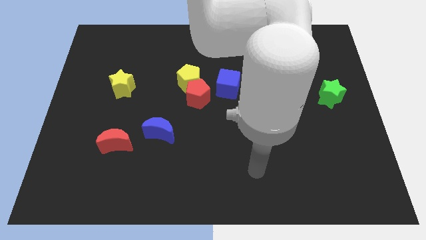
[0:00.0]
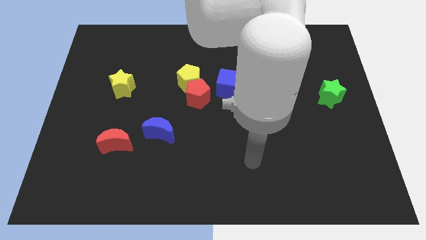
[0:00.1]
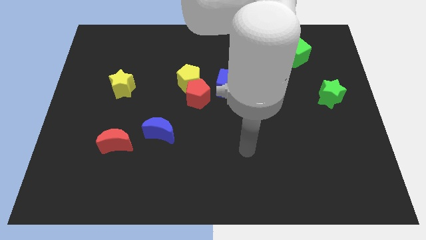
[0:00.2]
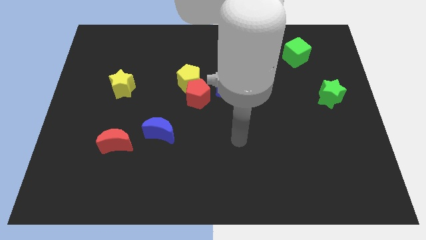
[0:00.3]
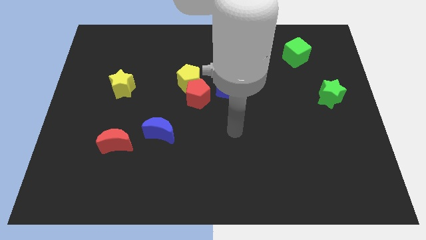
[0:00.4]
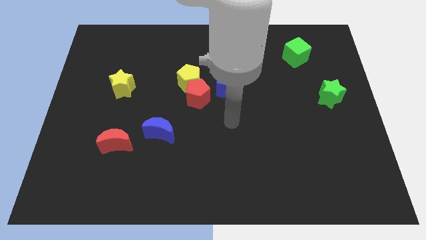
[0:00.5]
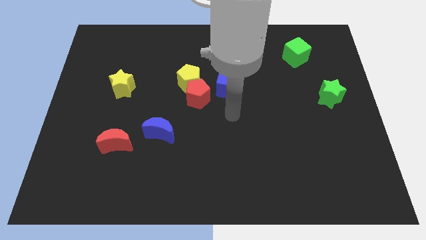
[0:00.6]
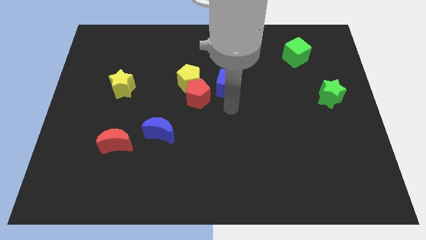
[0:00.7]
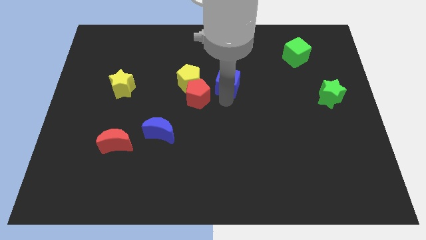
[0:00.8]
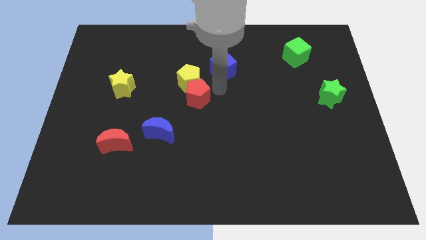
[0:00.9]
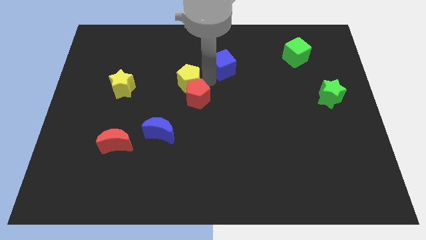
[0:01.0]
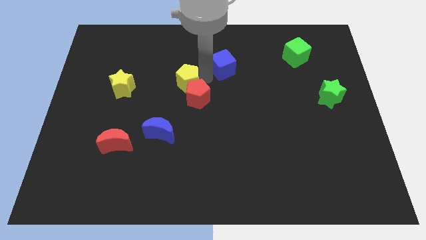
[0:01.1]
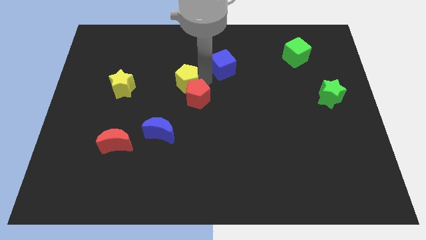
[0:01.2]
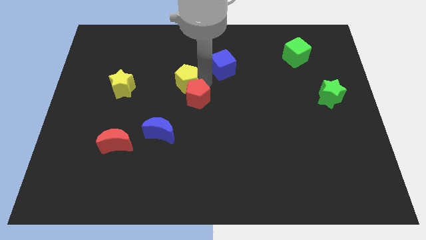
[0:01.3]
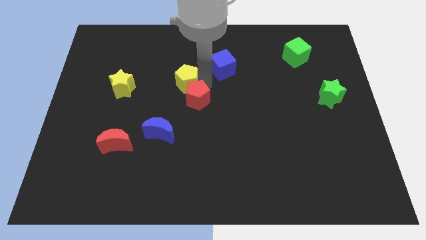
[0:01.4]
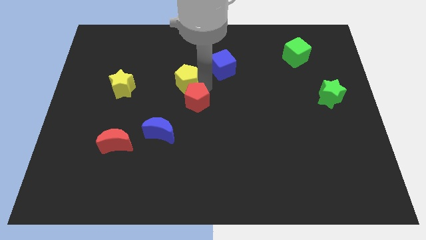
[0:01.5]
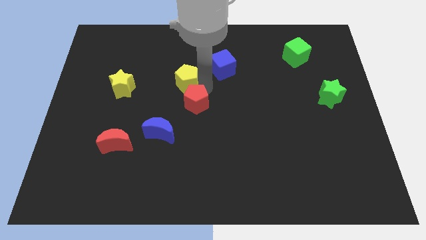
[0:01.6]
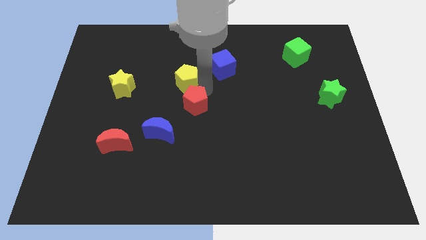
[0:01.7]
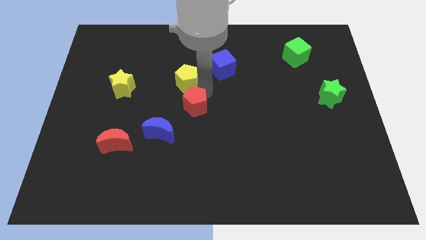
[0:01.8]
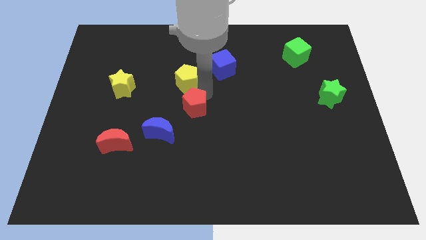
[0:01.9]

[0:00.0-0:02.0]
separate the red pentagon from the yellow pentagon and blue cube

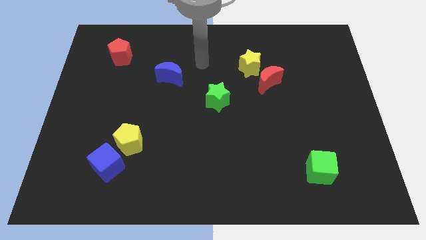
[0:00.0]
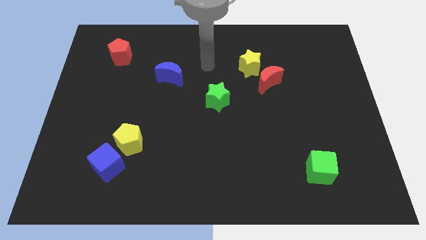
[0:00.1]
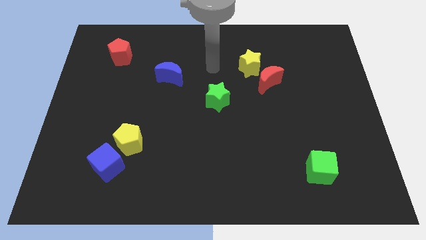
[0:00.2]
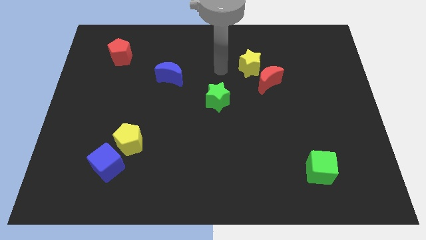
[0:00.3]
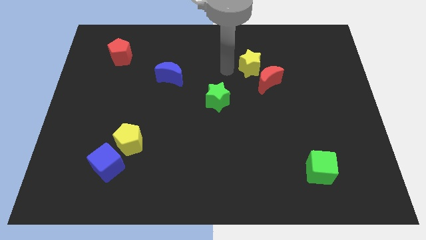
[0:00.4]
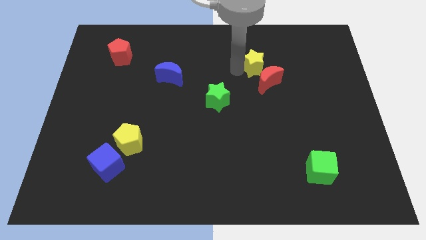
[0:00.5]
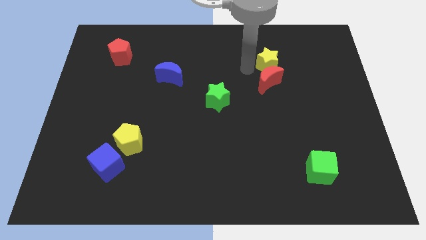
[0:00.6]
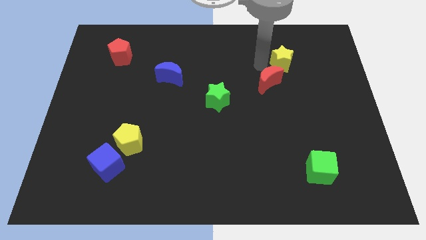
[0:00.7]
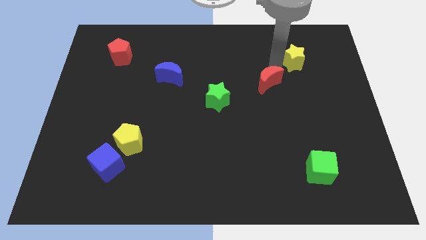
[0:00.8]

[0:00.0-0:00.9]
move the red moon away from the yellow star

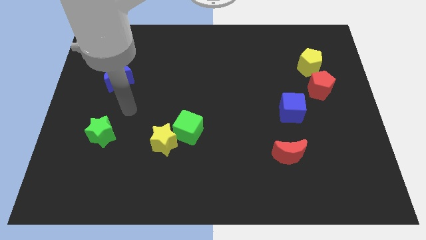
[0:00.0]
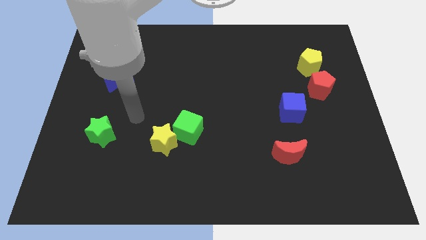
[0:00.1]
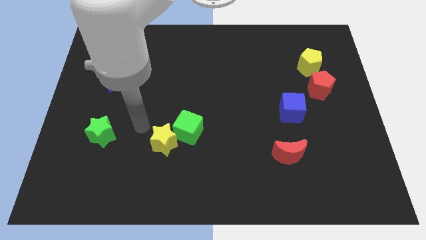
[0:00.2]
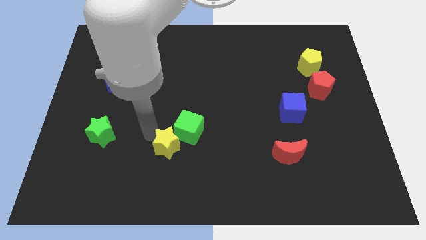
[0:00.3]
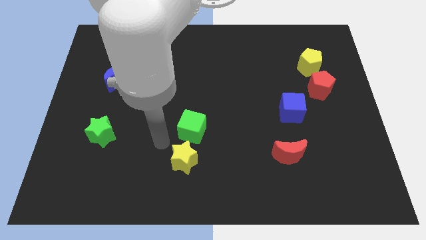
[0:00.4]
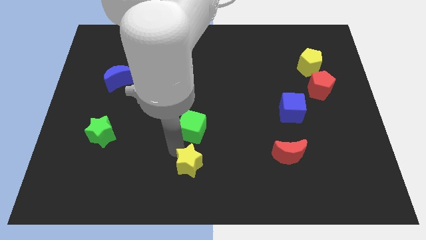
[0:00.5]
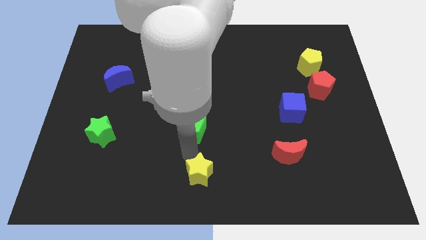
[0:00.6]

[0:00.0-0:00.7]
pull the green cube apart from the yellow star

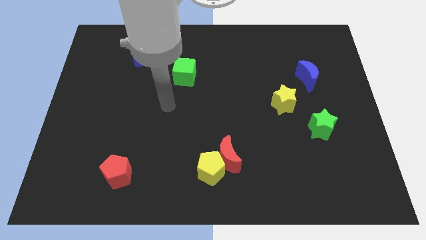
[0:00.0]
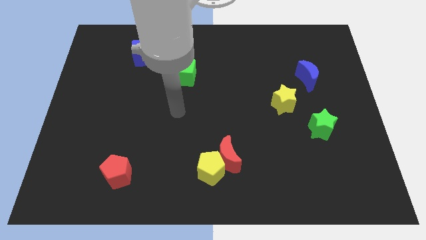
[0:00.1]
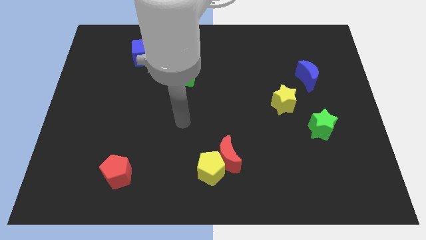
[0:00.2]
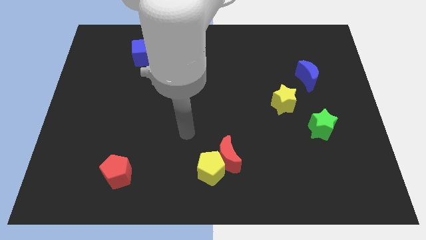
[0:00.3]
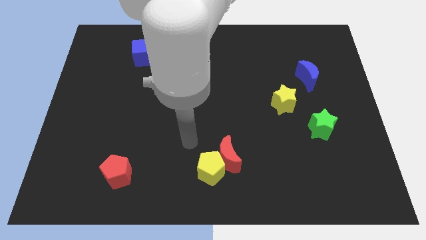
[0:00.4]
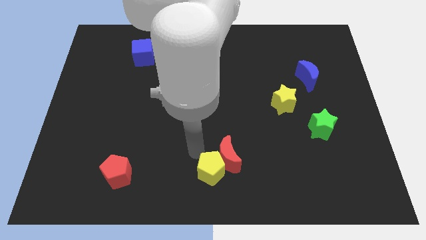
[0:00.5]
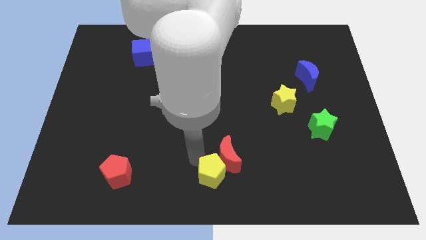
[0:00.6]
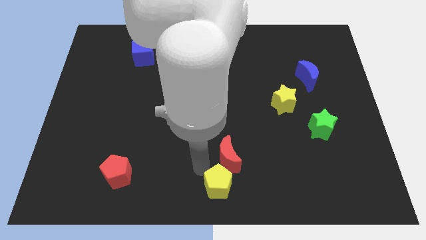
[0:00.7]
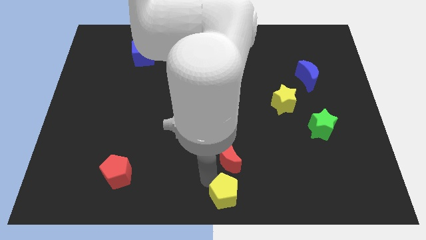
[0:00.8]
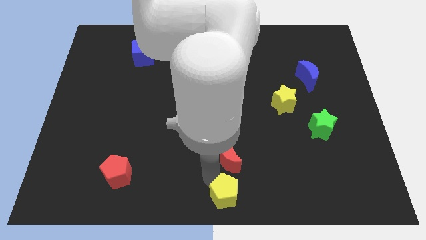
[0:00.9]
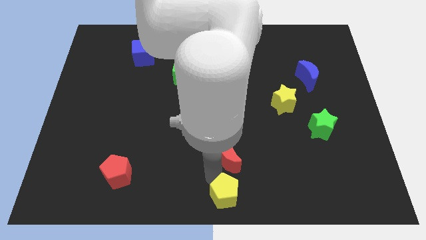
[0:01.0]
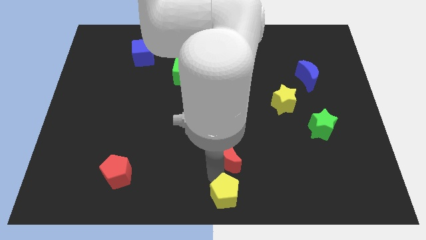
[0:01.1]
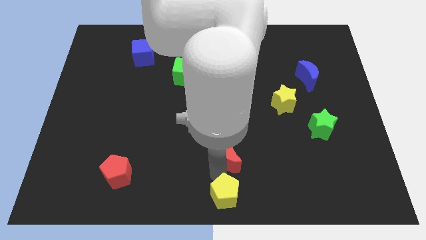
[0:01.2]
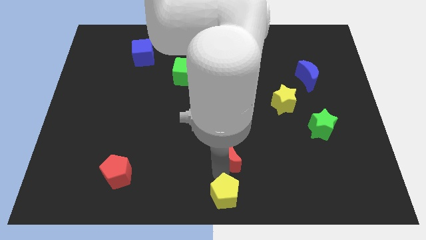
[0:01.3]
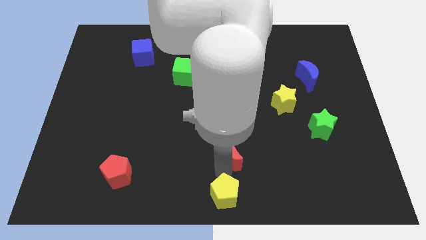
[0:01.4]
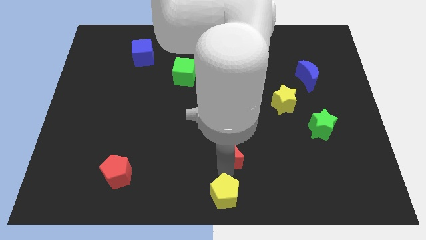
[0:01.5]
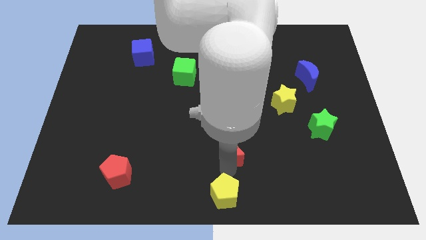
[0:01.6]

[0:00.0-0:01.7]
pull the red moon apart from the yellow pentagon

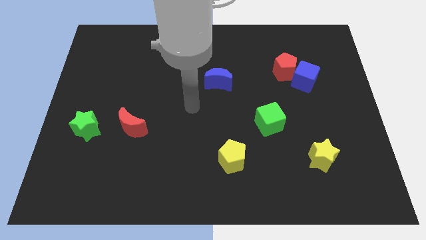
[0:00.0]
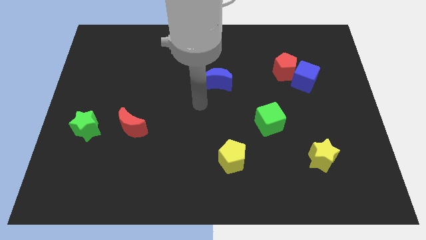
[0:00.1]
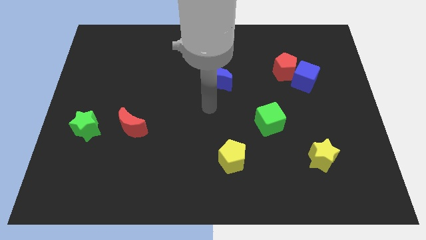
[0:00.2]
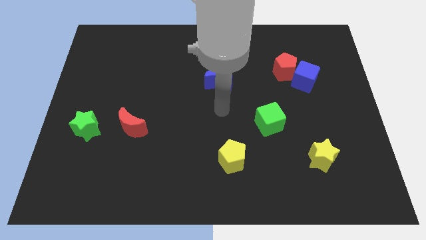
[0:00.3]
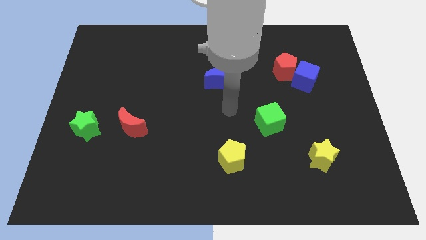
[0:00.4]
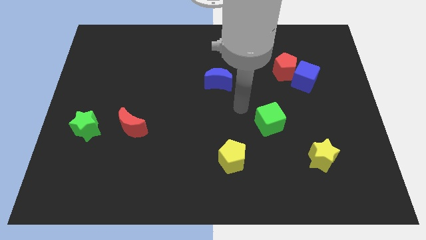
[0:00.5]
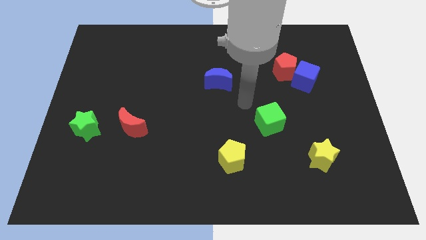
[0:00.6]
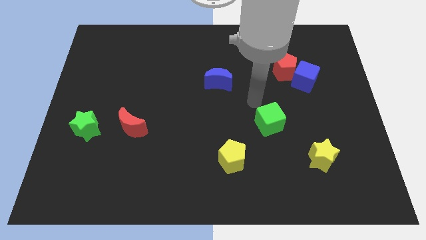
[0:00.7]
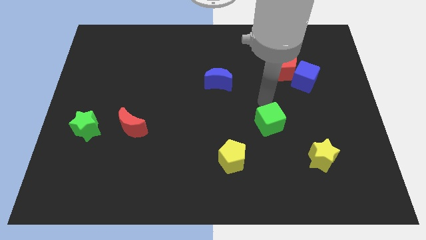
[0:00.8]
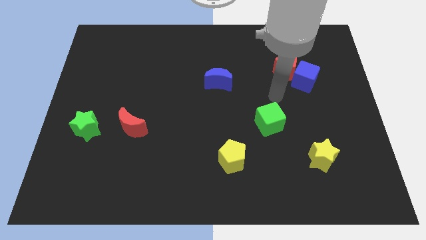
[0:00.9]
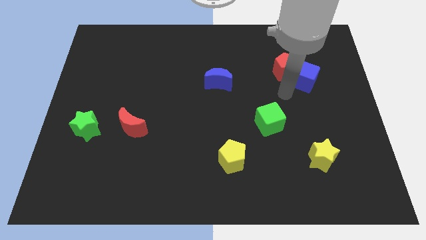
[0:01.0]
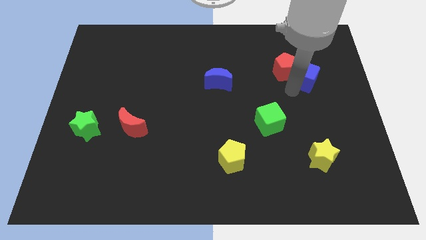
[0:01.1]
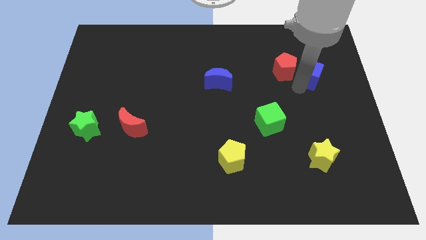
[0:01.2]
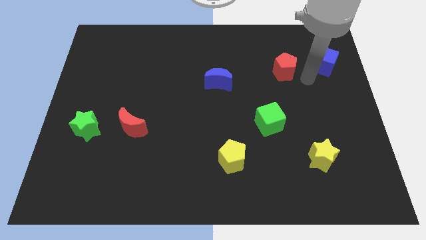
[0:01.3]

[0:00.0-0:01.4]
pull the red pentagon apart from the blue cube

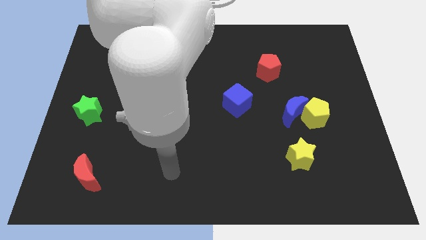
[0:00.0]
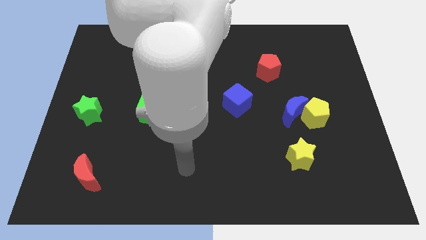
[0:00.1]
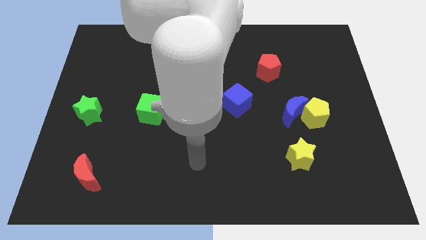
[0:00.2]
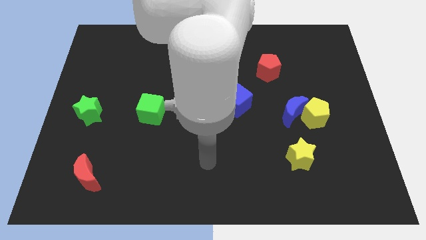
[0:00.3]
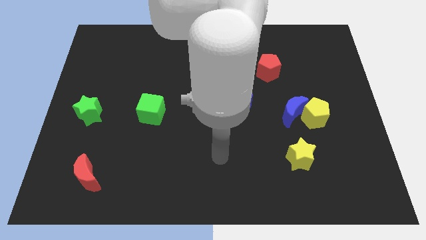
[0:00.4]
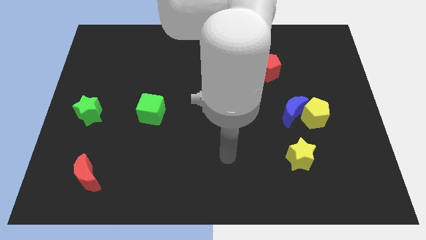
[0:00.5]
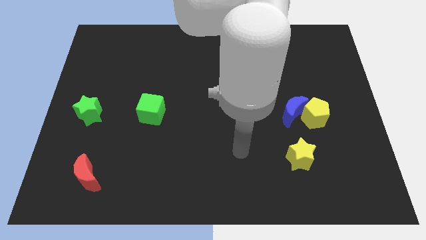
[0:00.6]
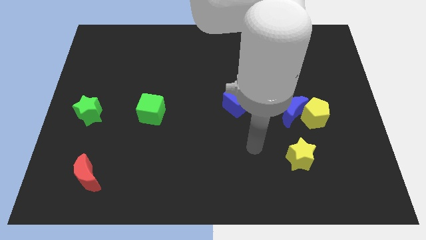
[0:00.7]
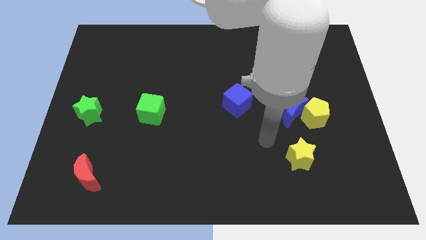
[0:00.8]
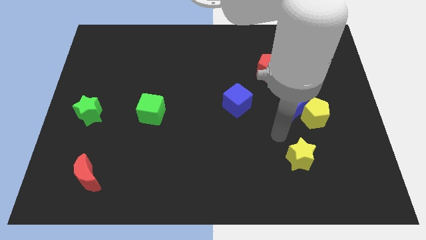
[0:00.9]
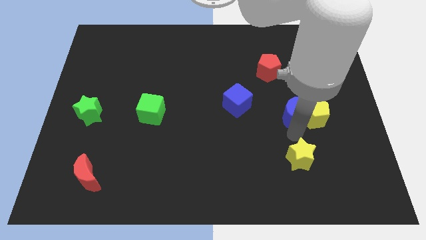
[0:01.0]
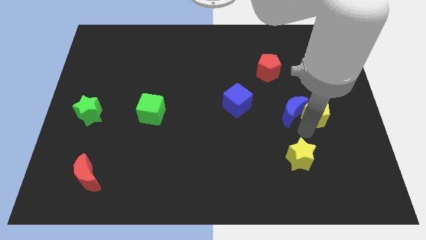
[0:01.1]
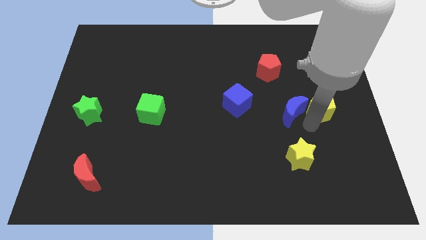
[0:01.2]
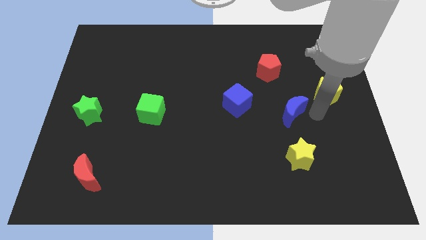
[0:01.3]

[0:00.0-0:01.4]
move the blue moon away from the yellow pentagon

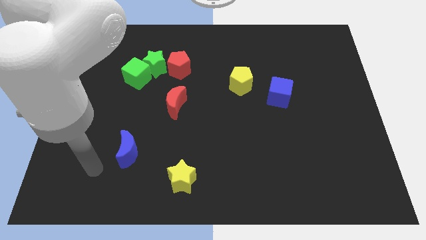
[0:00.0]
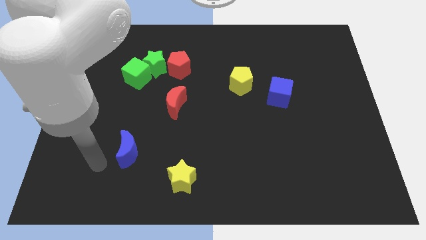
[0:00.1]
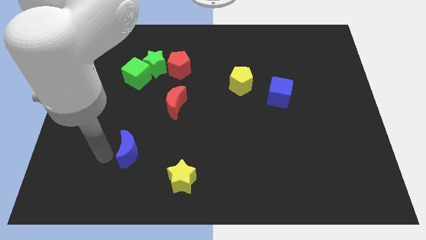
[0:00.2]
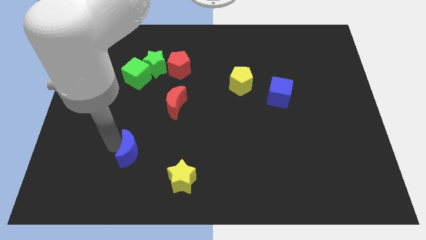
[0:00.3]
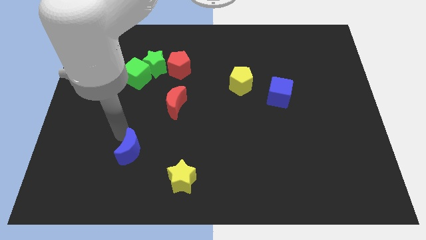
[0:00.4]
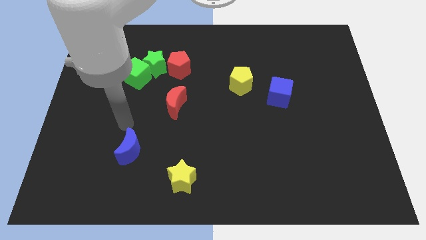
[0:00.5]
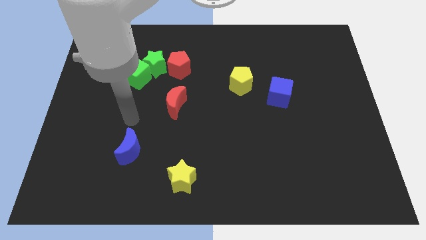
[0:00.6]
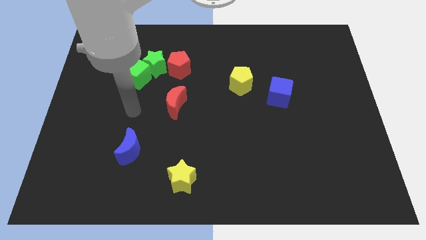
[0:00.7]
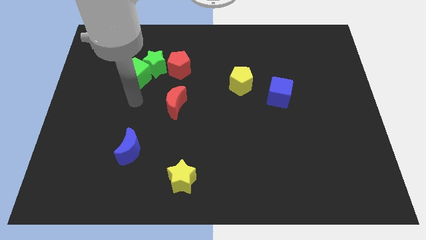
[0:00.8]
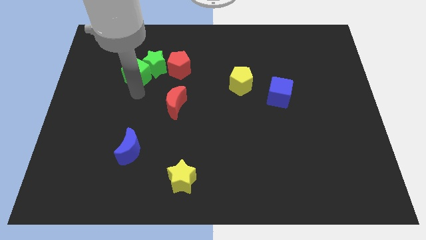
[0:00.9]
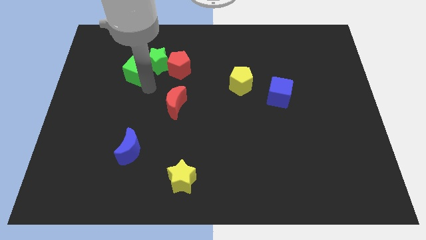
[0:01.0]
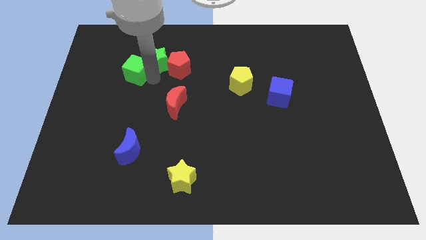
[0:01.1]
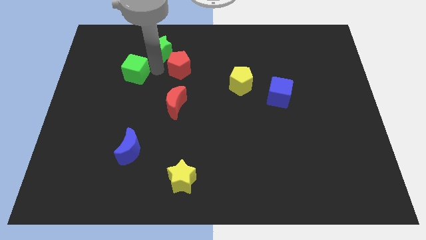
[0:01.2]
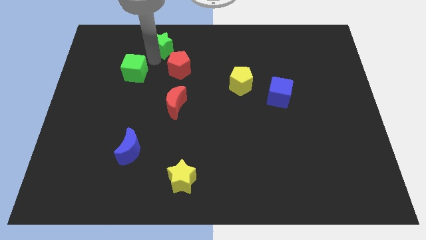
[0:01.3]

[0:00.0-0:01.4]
move the green cube away from the green star
